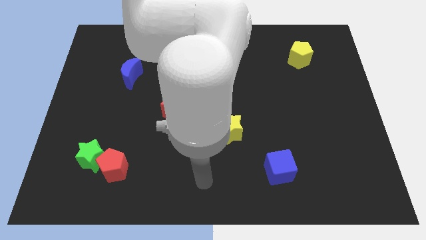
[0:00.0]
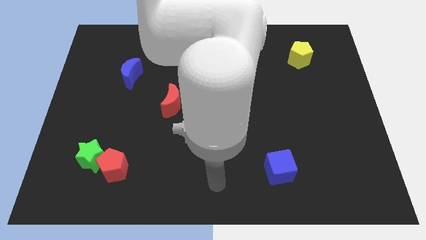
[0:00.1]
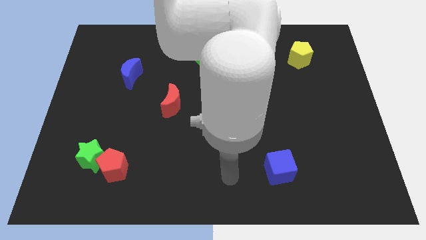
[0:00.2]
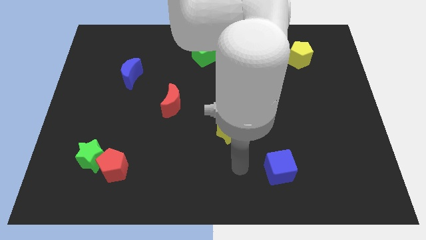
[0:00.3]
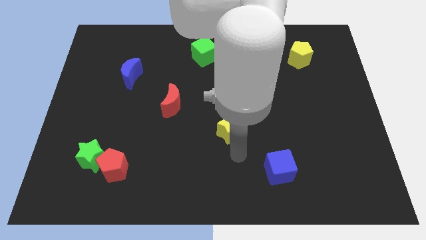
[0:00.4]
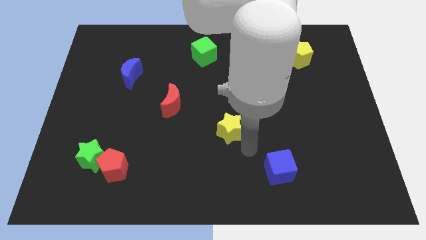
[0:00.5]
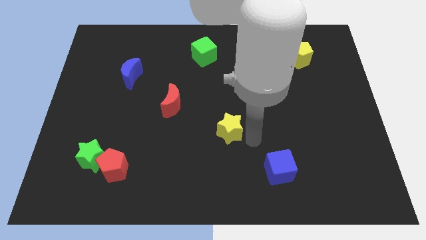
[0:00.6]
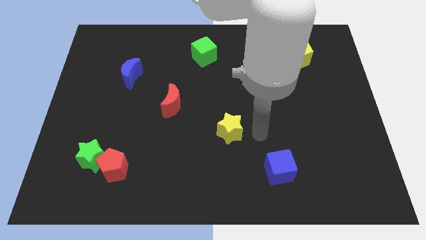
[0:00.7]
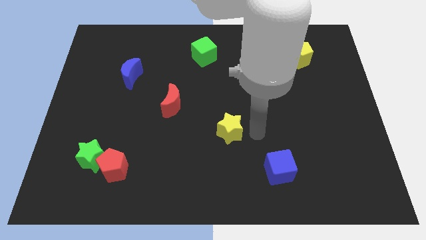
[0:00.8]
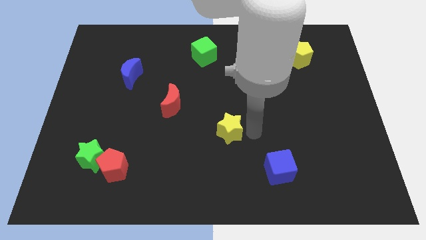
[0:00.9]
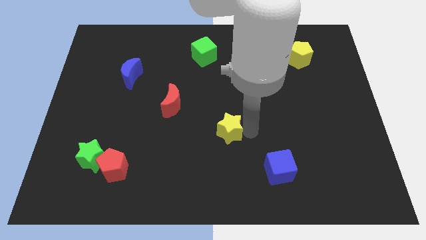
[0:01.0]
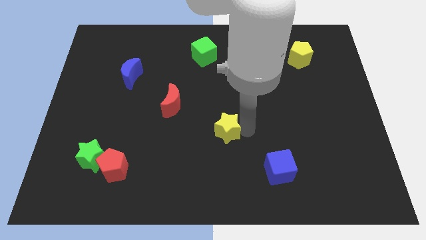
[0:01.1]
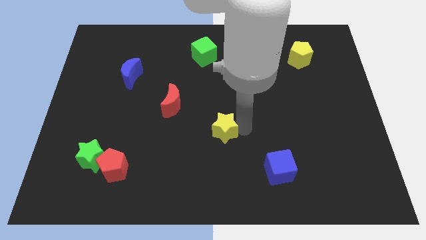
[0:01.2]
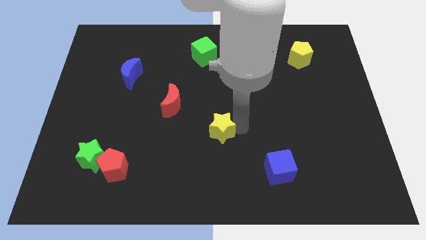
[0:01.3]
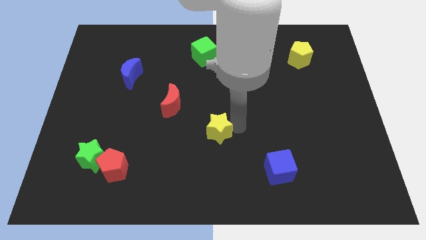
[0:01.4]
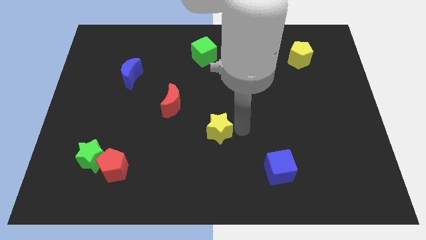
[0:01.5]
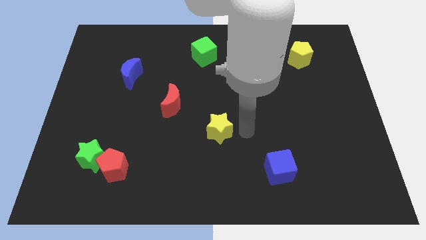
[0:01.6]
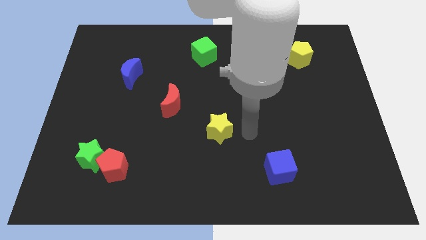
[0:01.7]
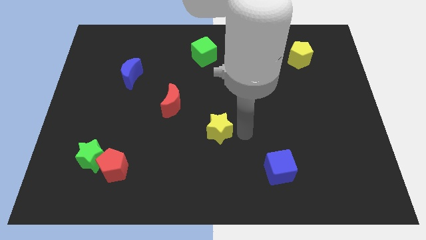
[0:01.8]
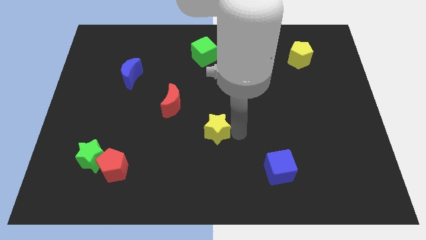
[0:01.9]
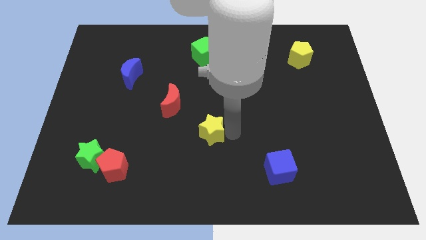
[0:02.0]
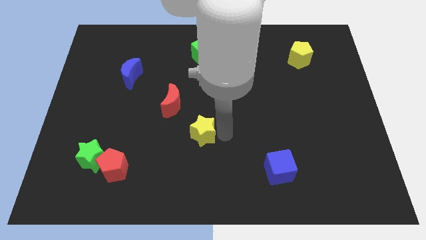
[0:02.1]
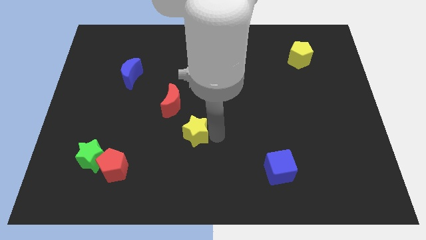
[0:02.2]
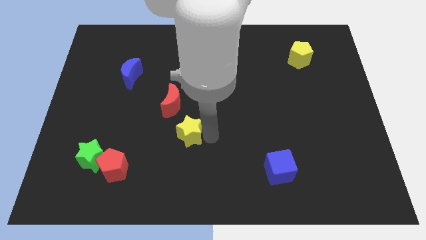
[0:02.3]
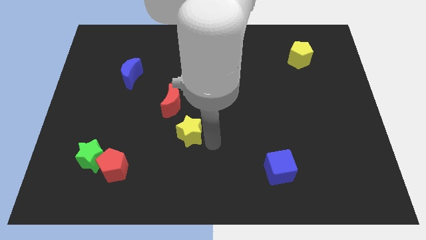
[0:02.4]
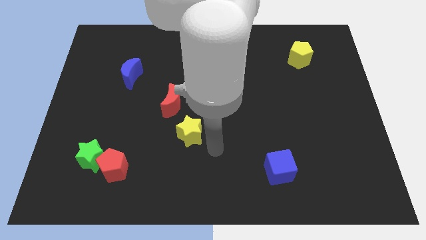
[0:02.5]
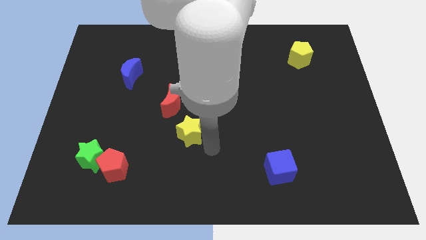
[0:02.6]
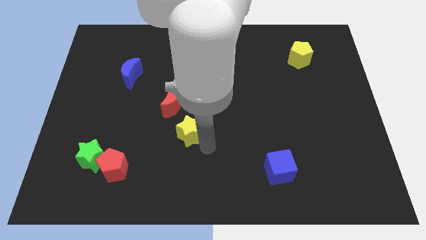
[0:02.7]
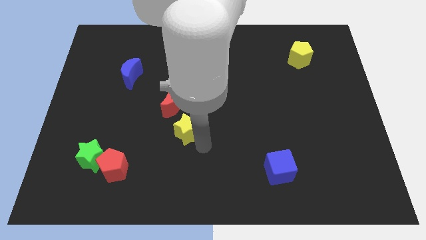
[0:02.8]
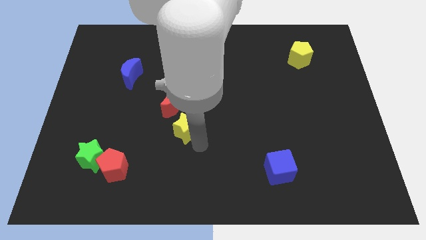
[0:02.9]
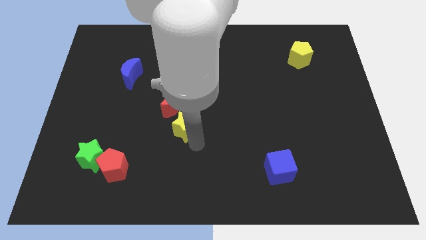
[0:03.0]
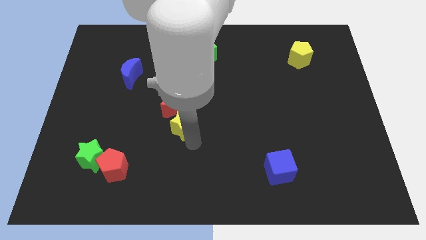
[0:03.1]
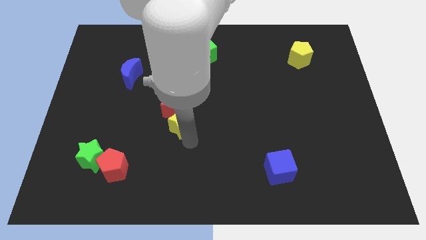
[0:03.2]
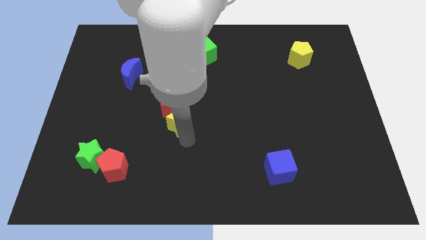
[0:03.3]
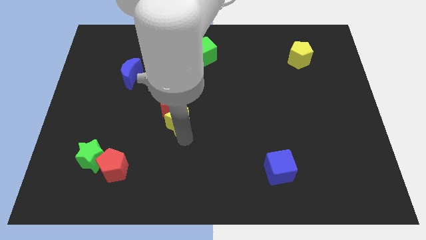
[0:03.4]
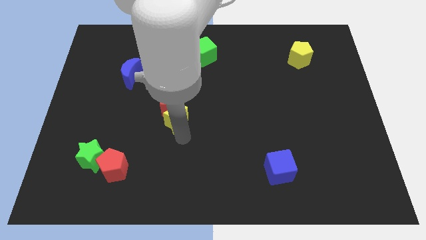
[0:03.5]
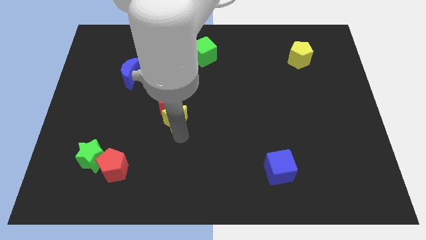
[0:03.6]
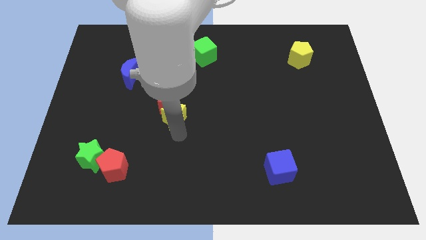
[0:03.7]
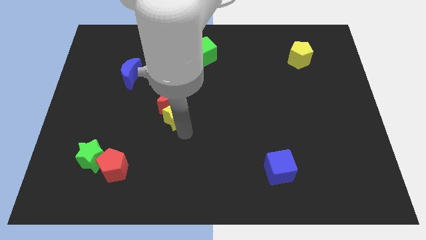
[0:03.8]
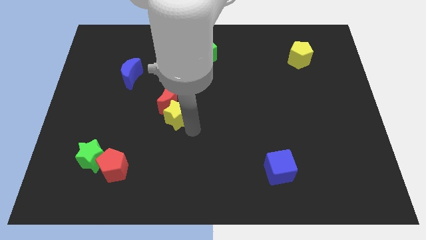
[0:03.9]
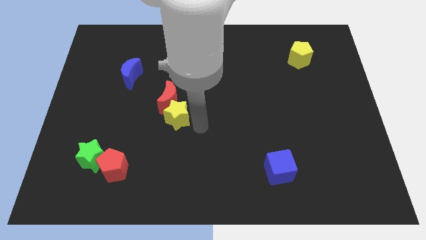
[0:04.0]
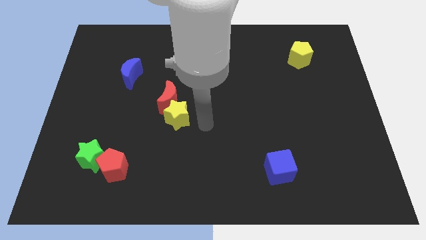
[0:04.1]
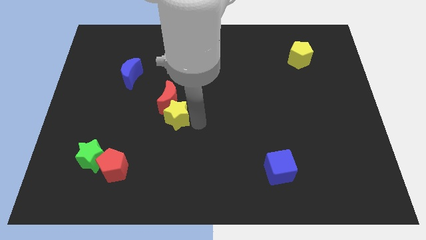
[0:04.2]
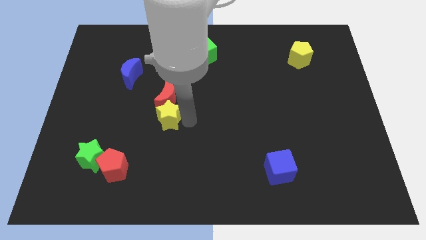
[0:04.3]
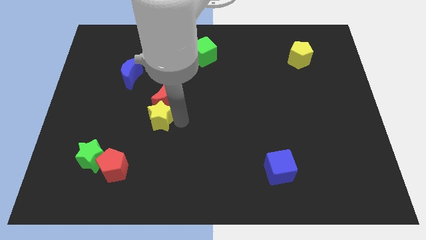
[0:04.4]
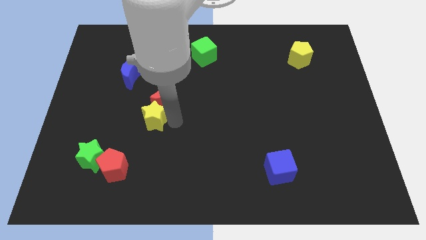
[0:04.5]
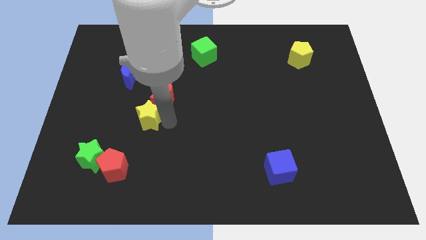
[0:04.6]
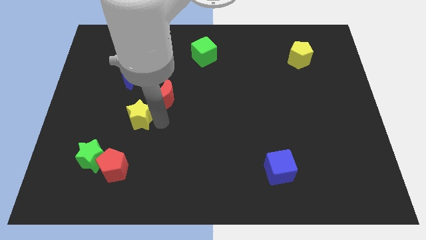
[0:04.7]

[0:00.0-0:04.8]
push the yellow star to the bottom of the blue moon

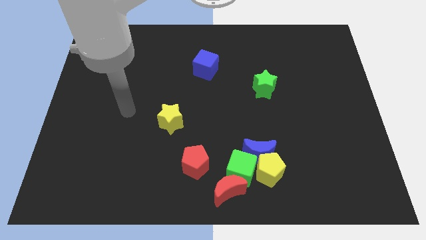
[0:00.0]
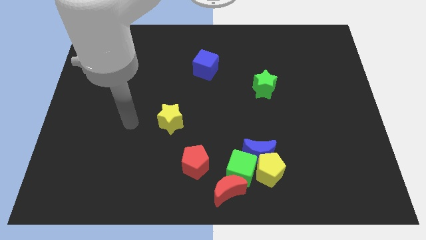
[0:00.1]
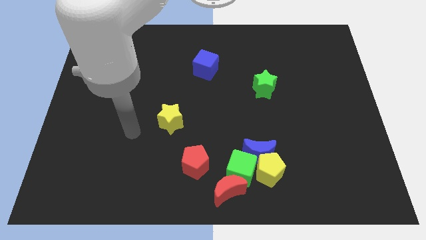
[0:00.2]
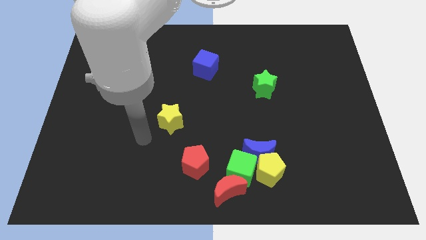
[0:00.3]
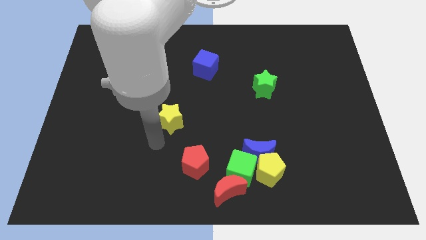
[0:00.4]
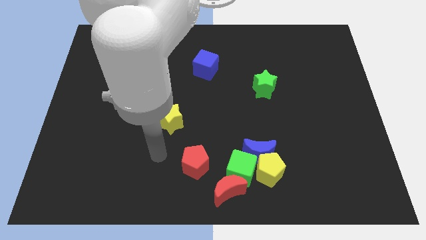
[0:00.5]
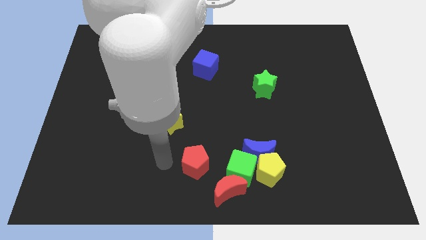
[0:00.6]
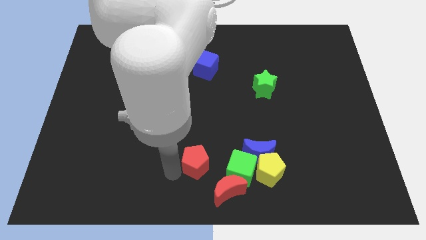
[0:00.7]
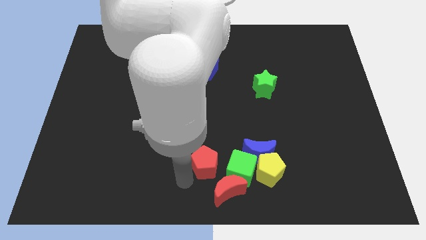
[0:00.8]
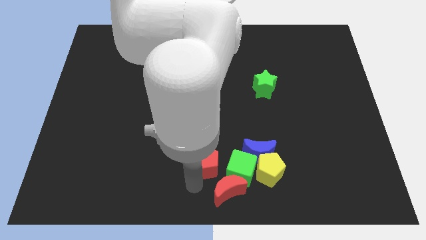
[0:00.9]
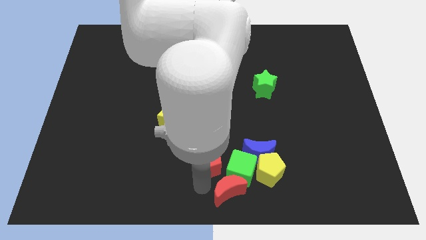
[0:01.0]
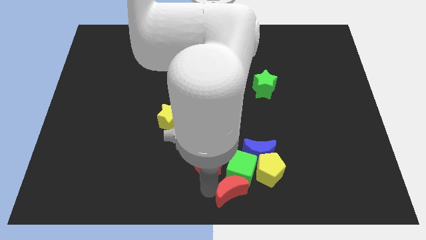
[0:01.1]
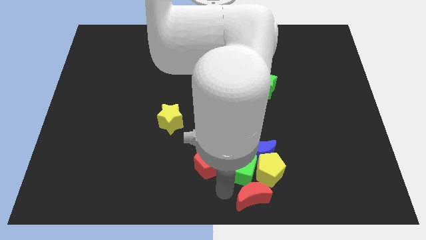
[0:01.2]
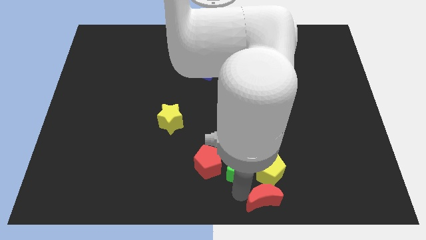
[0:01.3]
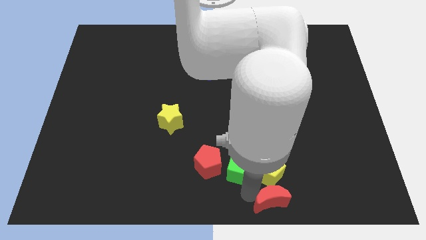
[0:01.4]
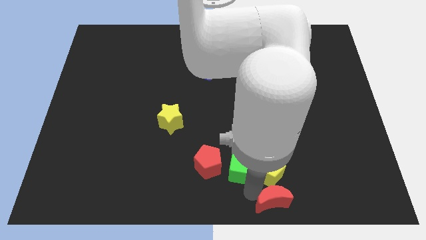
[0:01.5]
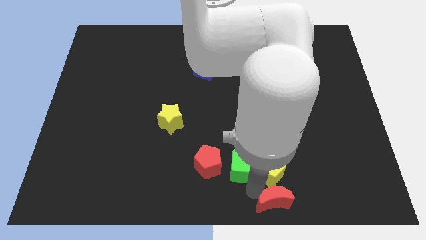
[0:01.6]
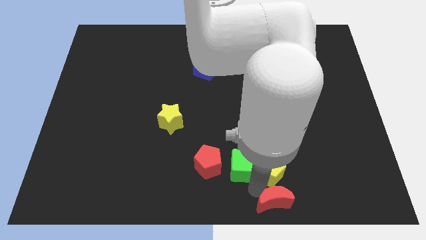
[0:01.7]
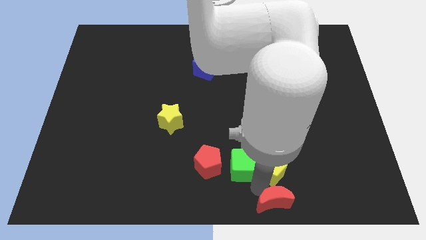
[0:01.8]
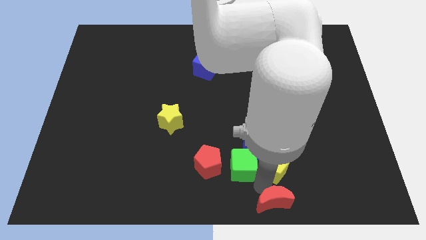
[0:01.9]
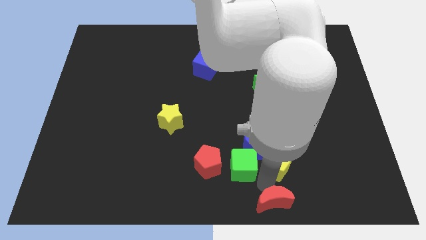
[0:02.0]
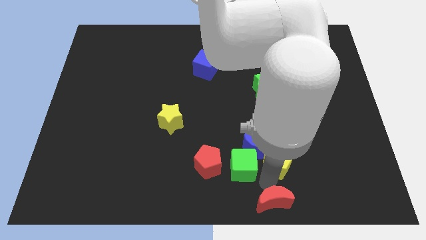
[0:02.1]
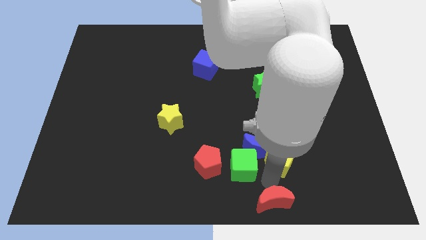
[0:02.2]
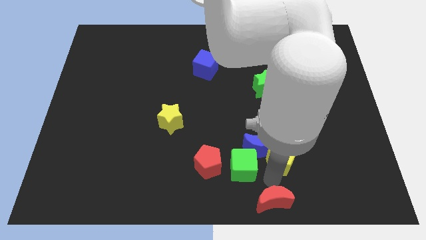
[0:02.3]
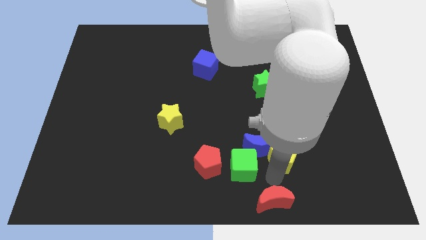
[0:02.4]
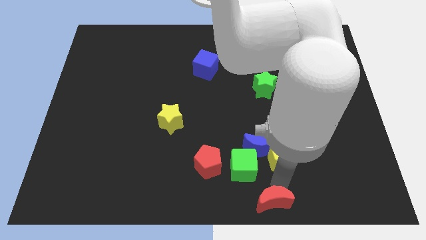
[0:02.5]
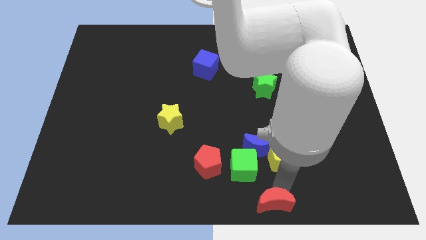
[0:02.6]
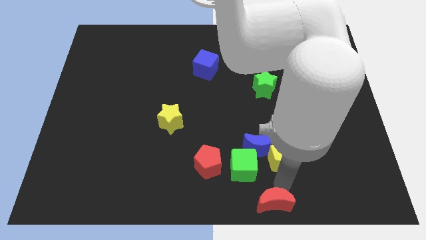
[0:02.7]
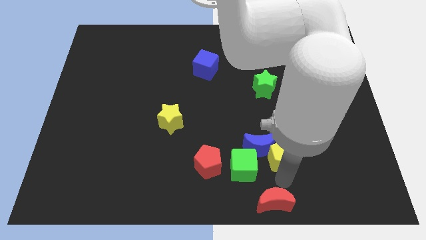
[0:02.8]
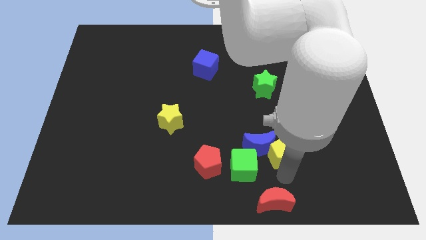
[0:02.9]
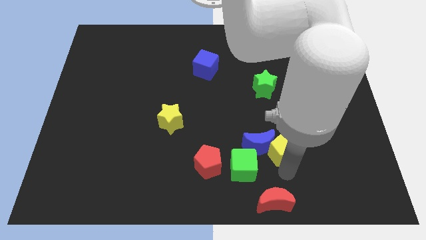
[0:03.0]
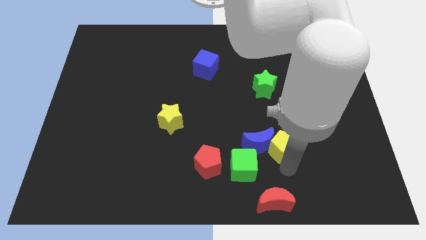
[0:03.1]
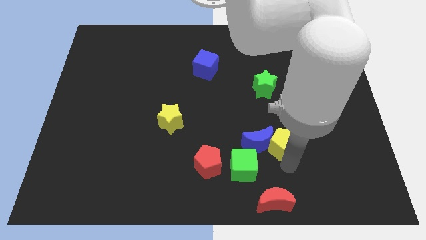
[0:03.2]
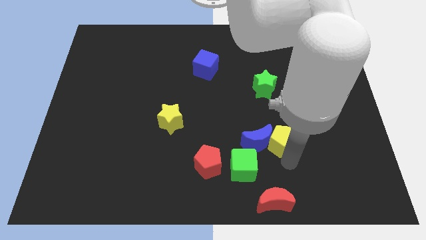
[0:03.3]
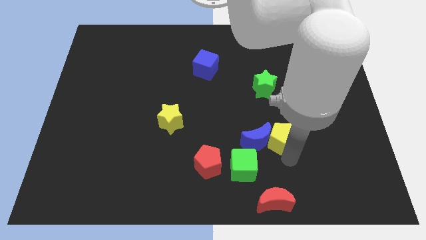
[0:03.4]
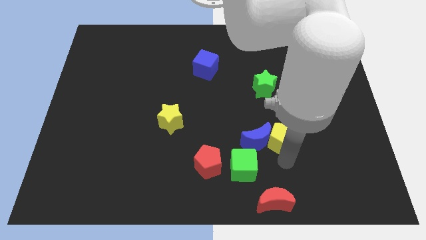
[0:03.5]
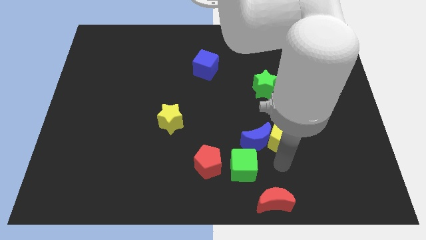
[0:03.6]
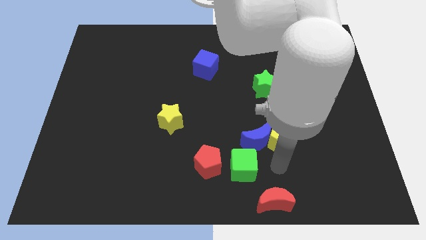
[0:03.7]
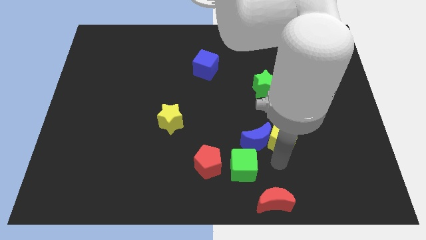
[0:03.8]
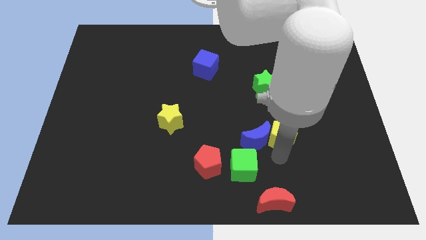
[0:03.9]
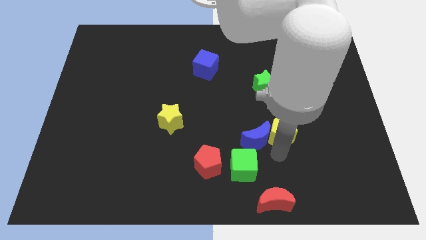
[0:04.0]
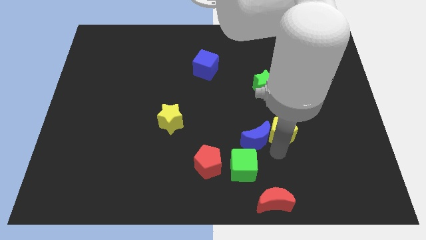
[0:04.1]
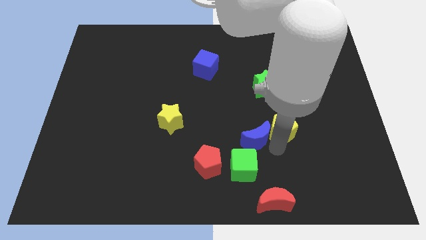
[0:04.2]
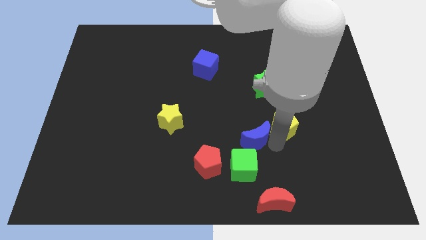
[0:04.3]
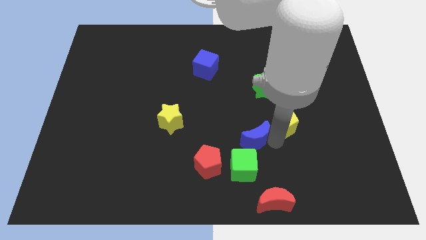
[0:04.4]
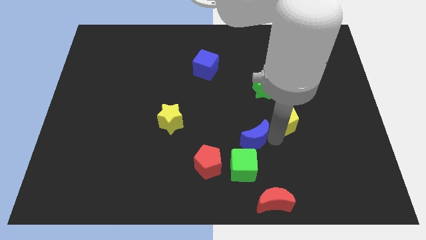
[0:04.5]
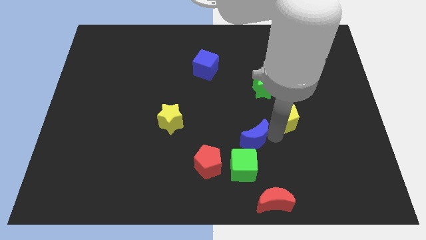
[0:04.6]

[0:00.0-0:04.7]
move the yellow pentagon to the bottom right side of the green star
